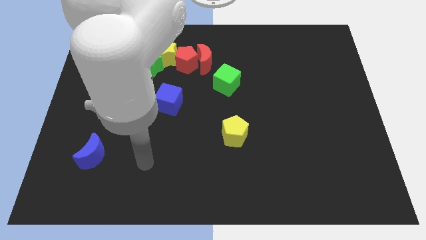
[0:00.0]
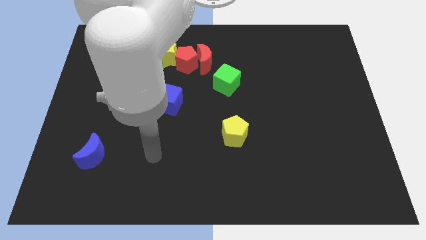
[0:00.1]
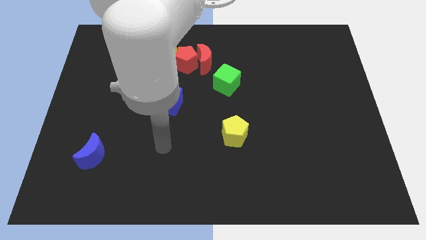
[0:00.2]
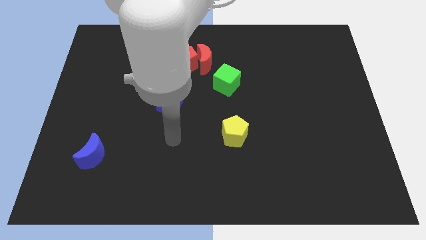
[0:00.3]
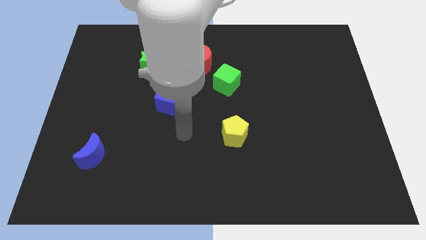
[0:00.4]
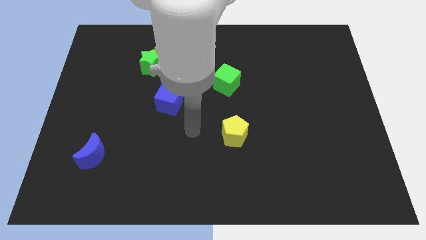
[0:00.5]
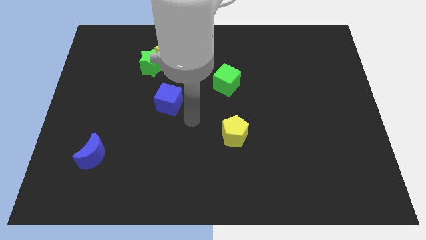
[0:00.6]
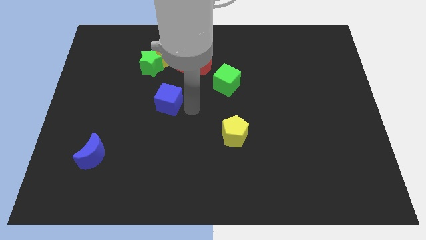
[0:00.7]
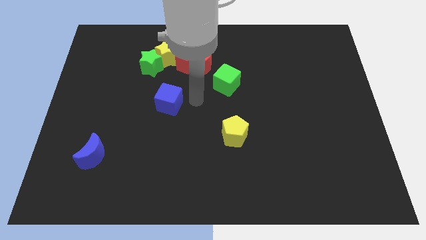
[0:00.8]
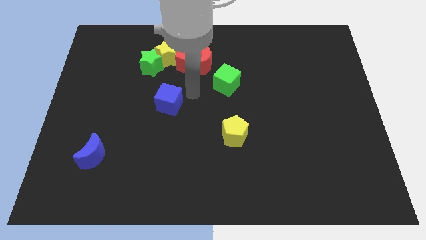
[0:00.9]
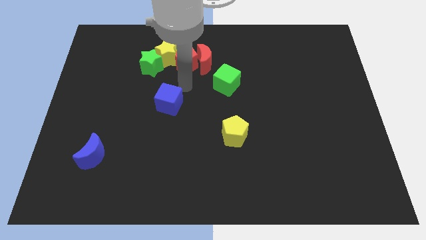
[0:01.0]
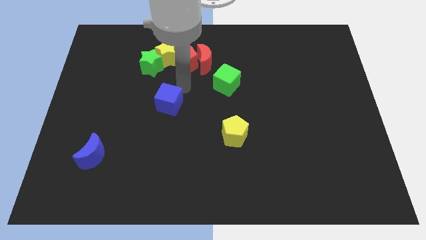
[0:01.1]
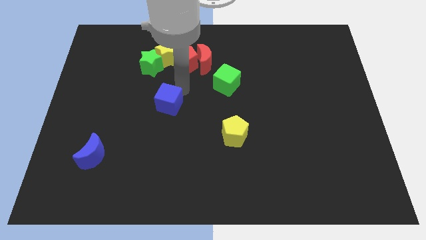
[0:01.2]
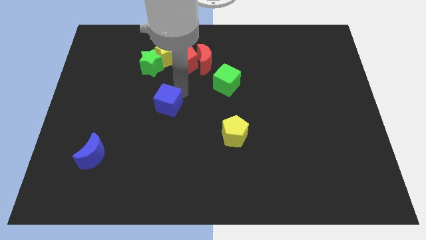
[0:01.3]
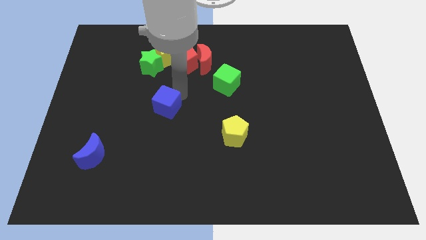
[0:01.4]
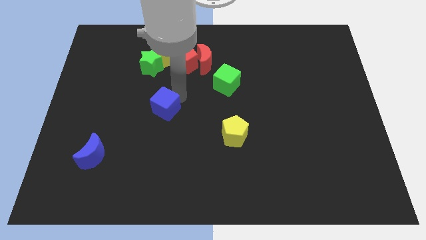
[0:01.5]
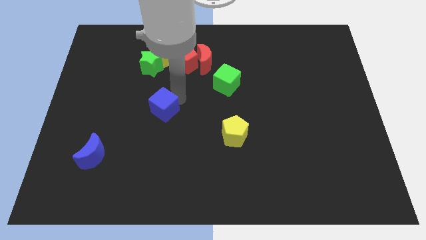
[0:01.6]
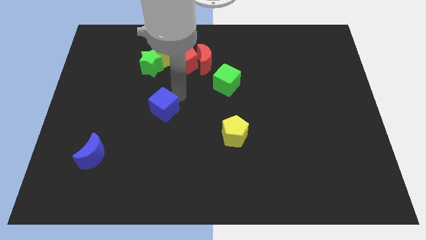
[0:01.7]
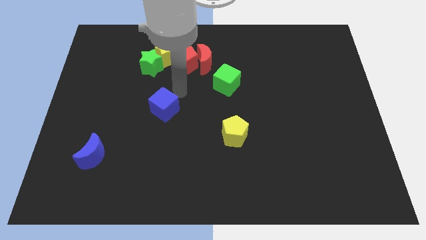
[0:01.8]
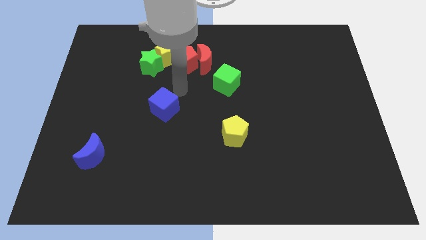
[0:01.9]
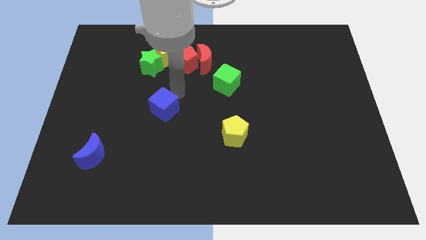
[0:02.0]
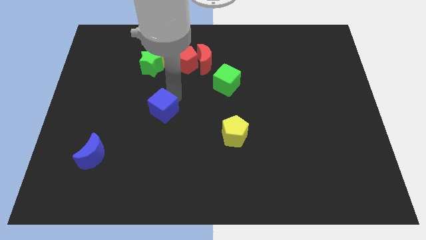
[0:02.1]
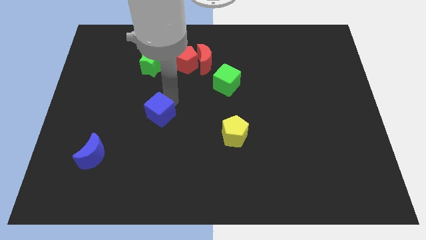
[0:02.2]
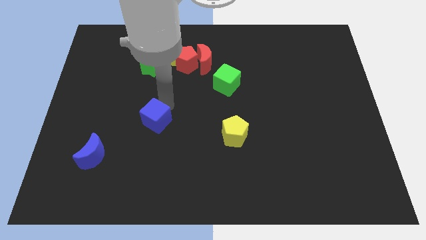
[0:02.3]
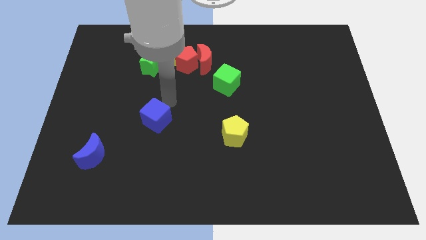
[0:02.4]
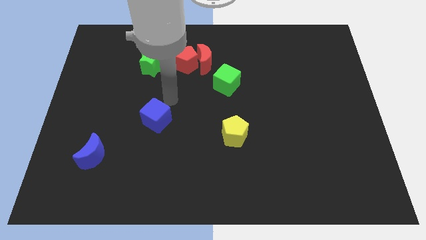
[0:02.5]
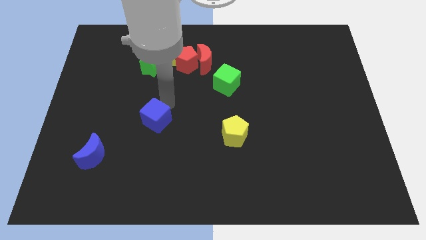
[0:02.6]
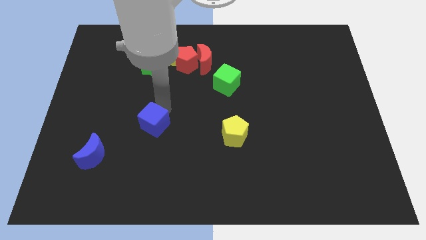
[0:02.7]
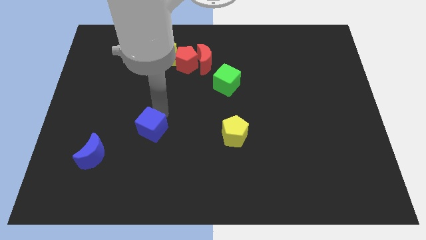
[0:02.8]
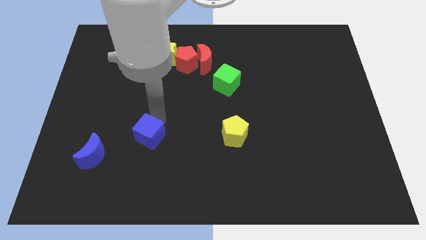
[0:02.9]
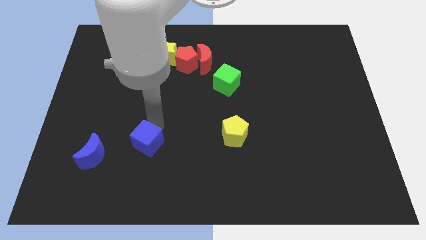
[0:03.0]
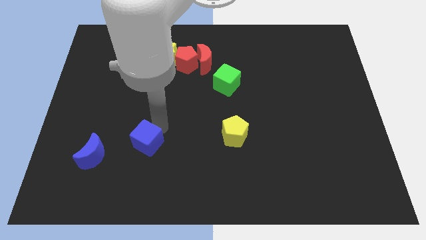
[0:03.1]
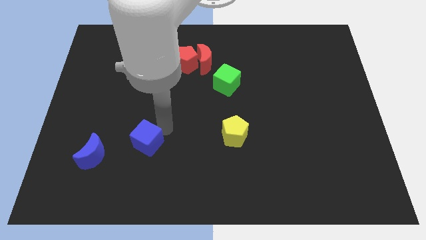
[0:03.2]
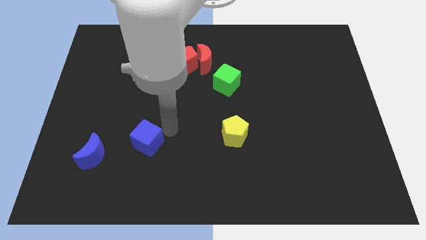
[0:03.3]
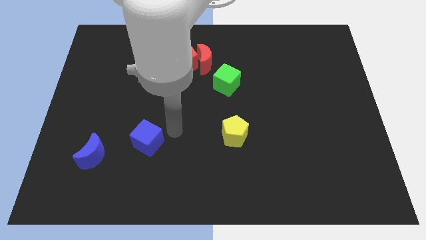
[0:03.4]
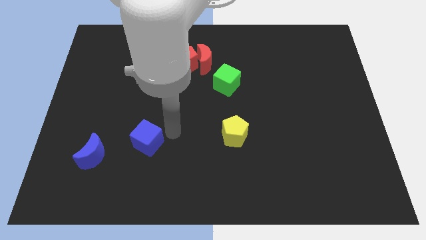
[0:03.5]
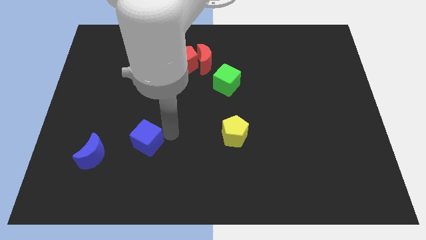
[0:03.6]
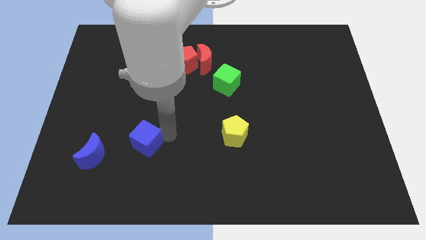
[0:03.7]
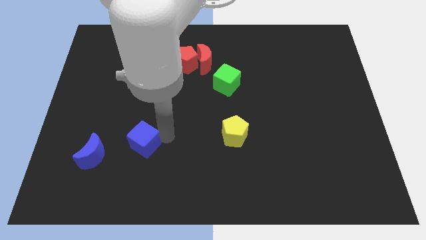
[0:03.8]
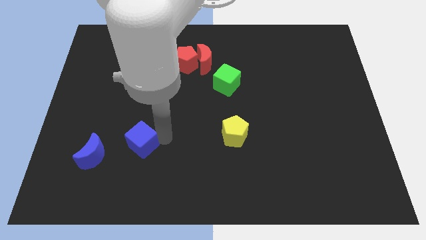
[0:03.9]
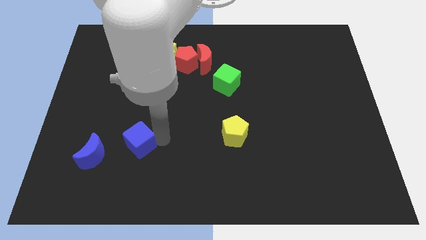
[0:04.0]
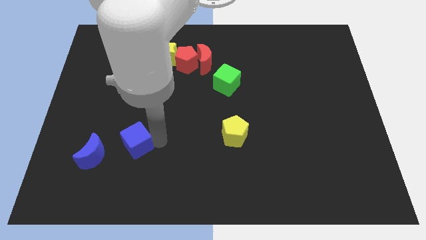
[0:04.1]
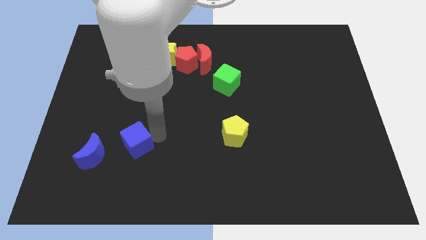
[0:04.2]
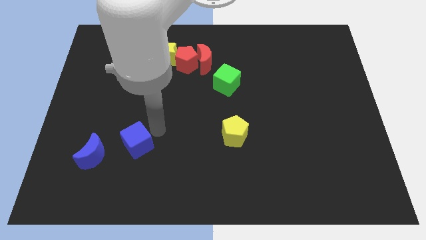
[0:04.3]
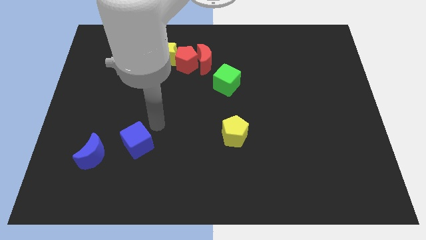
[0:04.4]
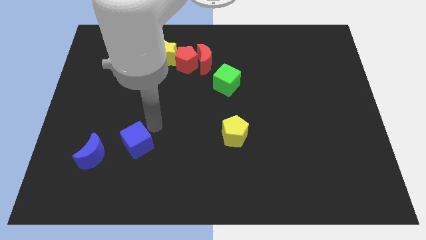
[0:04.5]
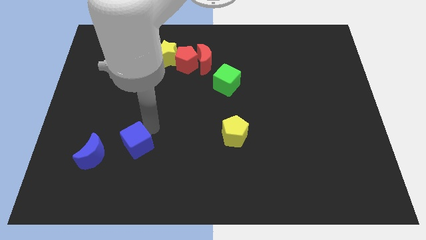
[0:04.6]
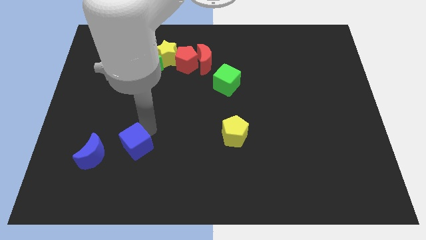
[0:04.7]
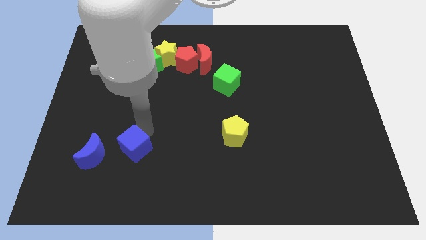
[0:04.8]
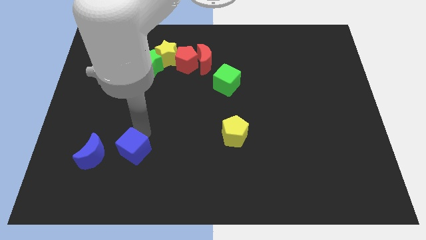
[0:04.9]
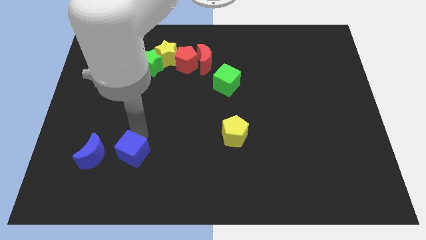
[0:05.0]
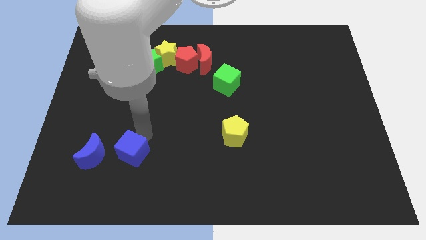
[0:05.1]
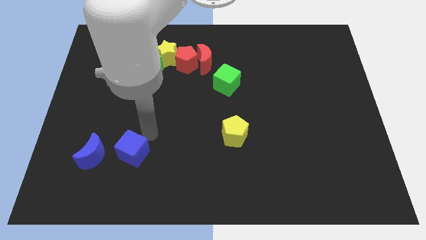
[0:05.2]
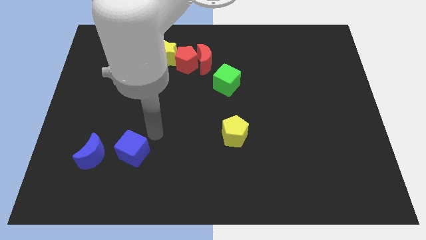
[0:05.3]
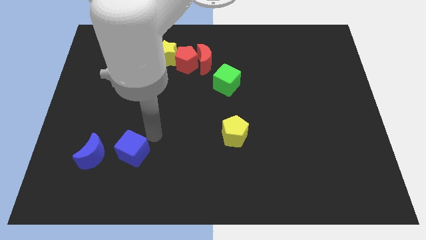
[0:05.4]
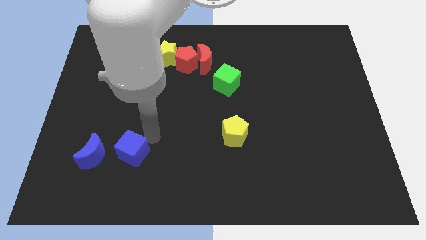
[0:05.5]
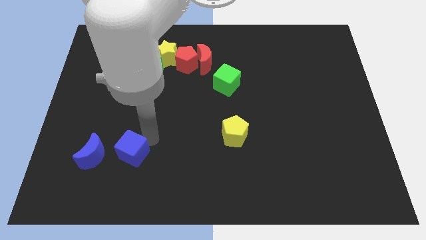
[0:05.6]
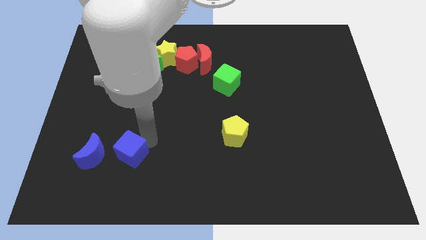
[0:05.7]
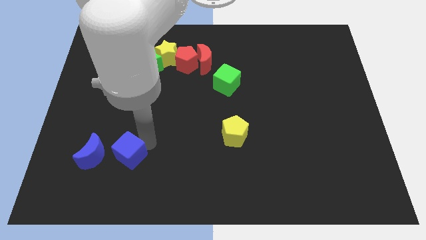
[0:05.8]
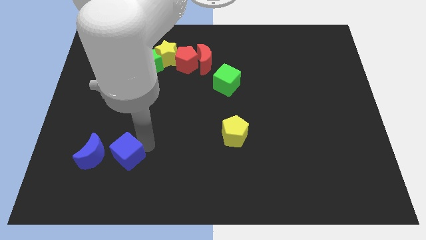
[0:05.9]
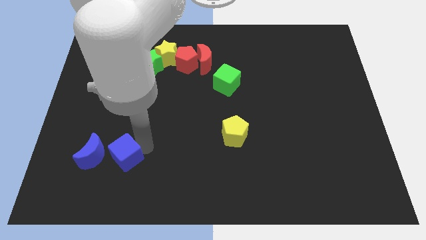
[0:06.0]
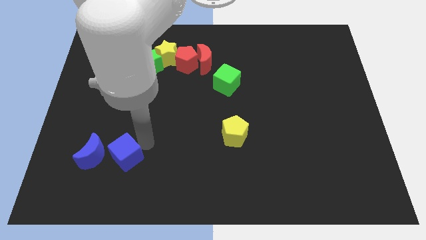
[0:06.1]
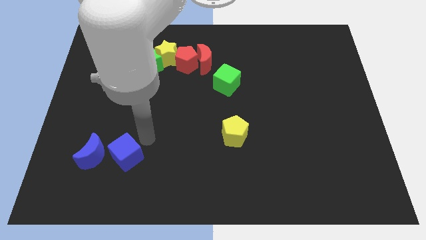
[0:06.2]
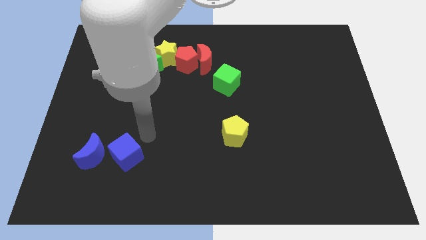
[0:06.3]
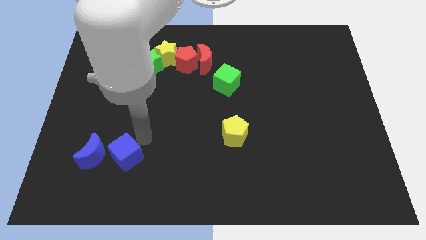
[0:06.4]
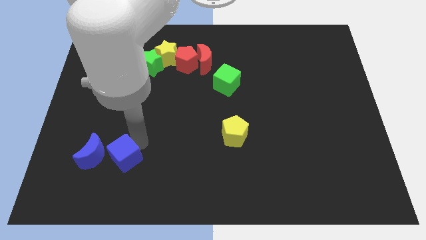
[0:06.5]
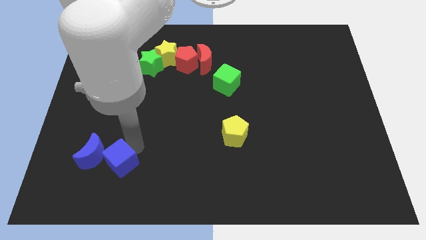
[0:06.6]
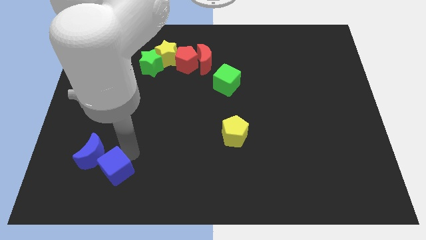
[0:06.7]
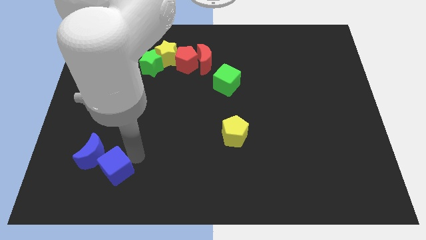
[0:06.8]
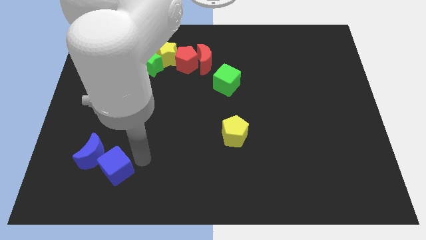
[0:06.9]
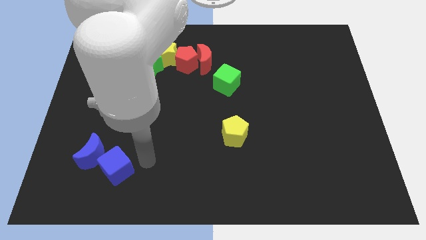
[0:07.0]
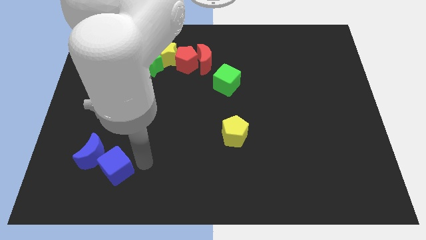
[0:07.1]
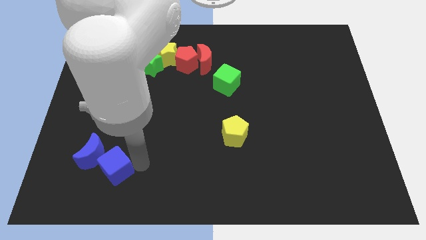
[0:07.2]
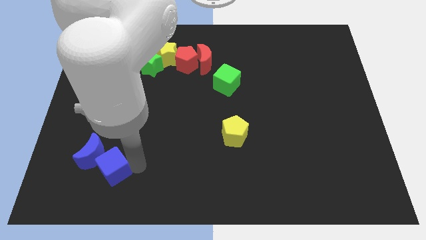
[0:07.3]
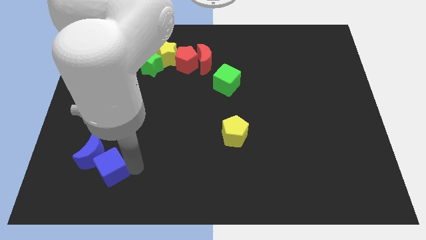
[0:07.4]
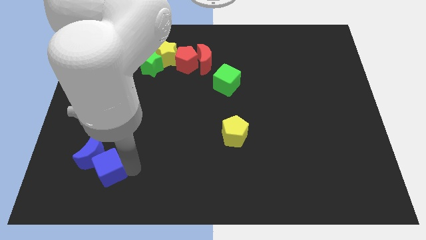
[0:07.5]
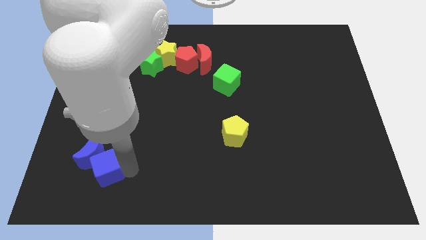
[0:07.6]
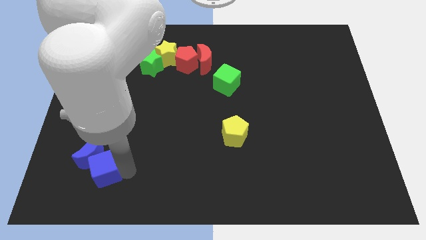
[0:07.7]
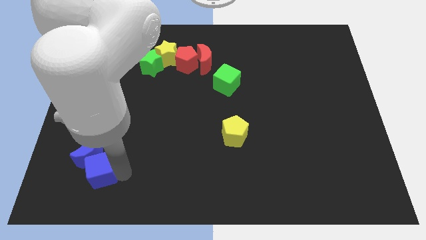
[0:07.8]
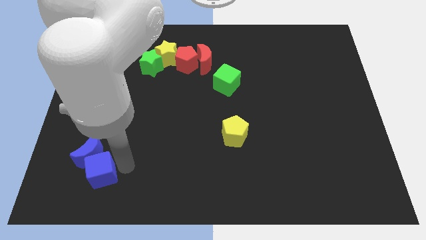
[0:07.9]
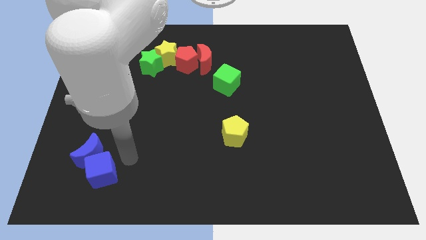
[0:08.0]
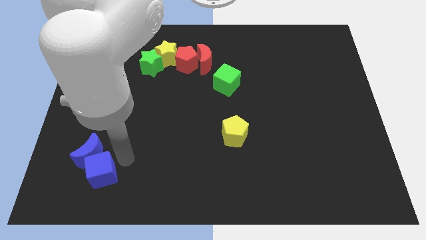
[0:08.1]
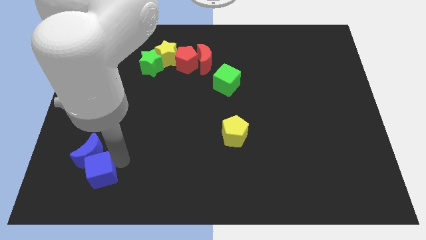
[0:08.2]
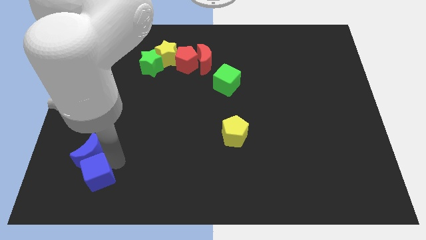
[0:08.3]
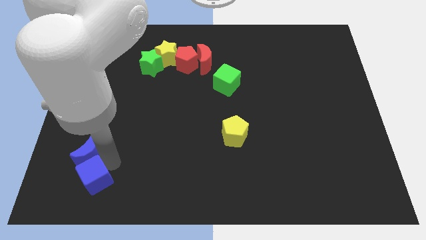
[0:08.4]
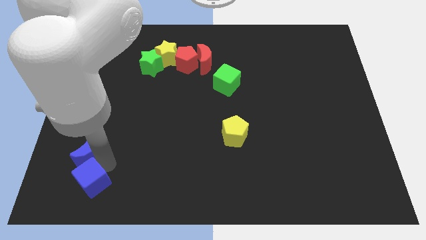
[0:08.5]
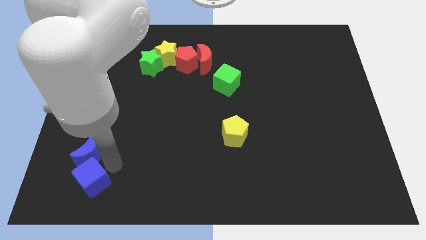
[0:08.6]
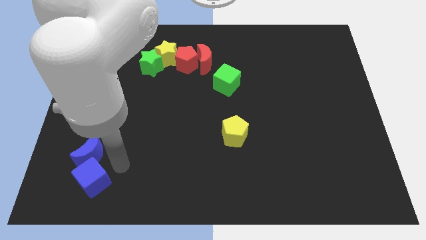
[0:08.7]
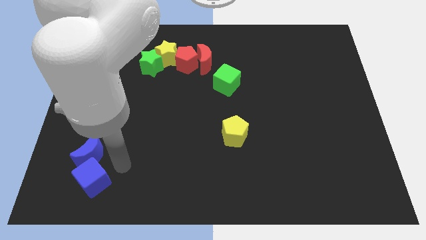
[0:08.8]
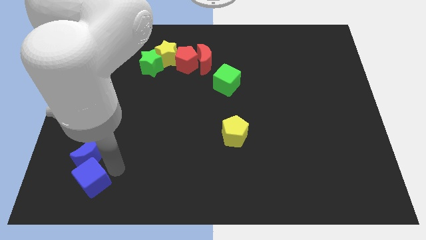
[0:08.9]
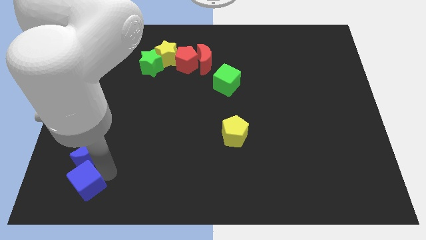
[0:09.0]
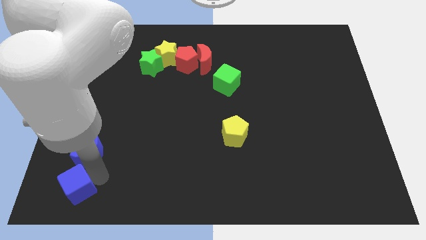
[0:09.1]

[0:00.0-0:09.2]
push the blue cube to the bottom left corner
